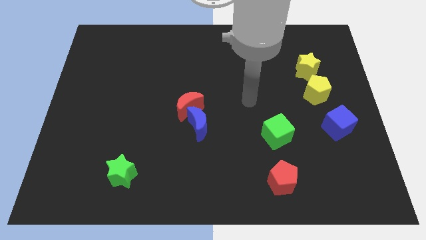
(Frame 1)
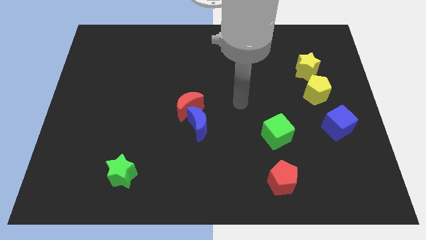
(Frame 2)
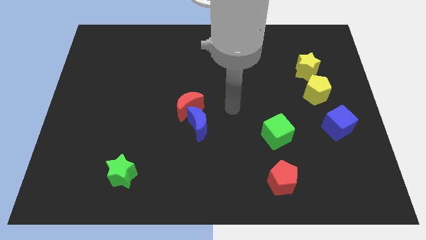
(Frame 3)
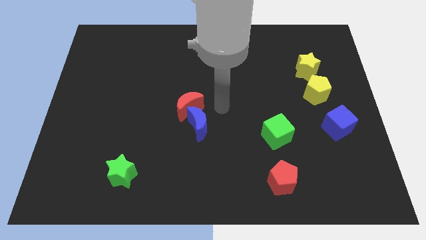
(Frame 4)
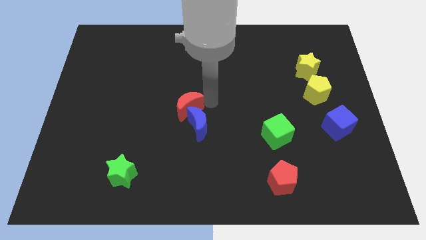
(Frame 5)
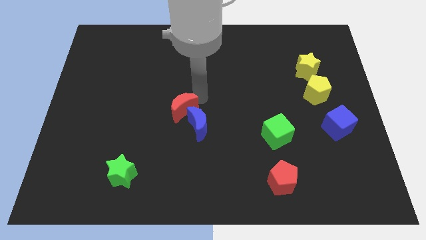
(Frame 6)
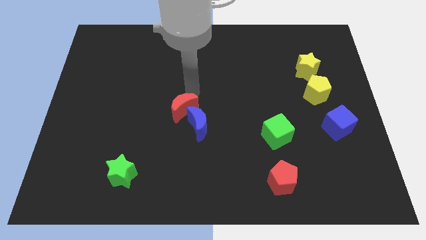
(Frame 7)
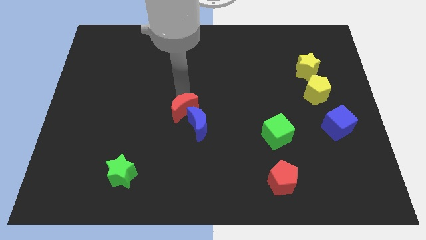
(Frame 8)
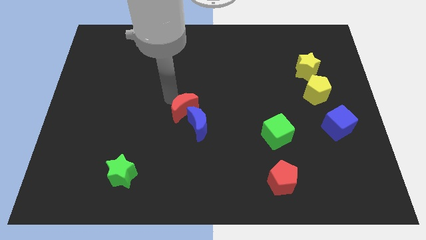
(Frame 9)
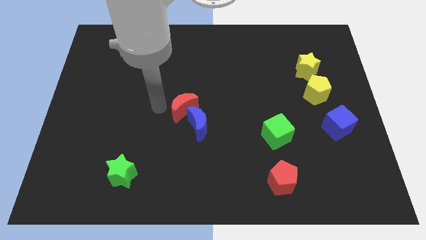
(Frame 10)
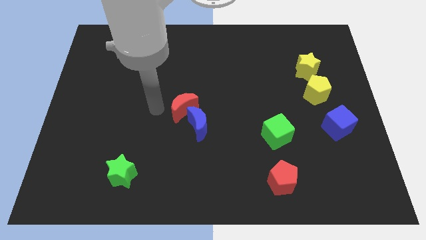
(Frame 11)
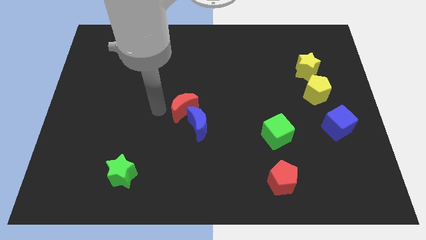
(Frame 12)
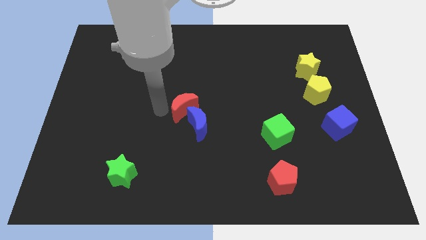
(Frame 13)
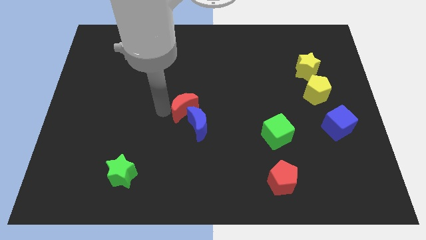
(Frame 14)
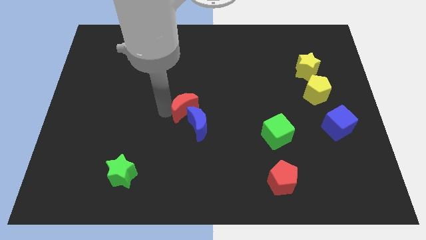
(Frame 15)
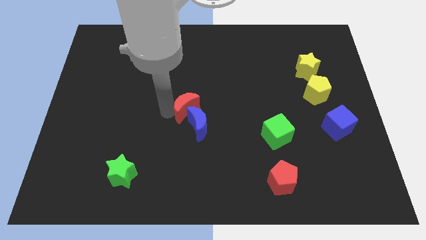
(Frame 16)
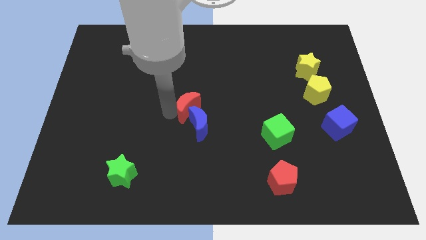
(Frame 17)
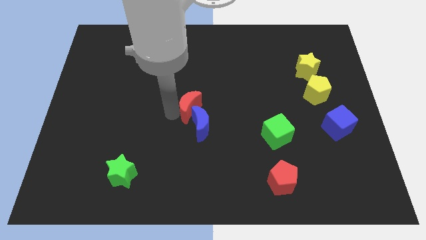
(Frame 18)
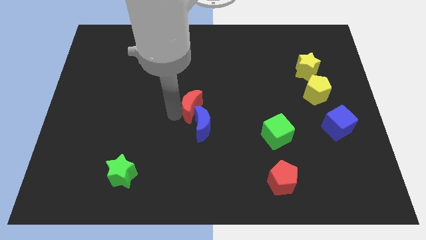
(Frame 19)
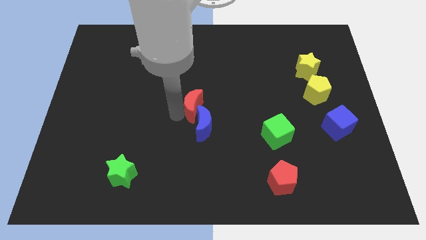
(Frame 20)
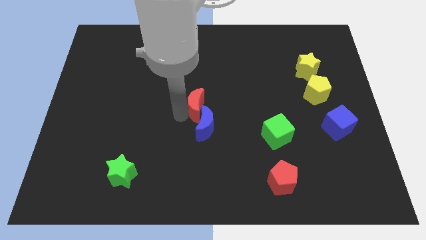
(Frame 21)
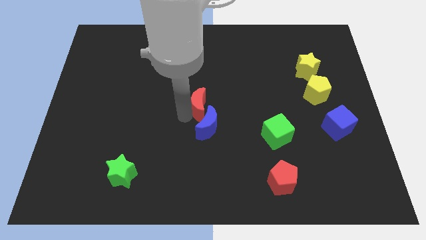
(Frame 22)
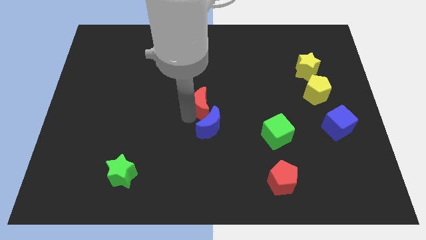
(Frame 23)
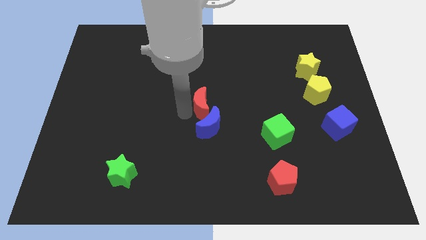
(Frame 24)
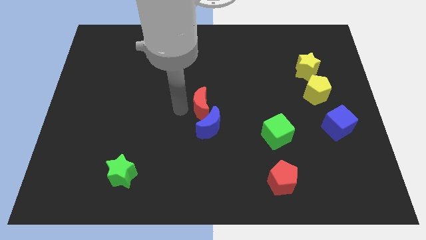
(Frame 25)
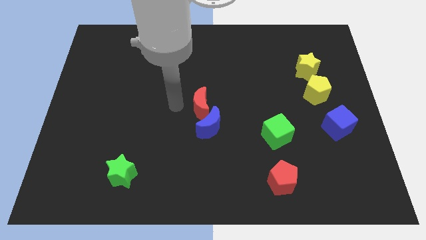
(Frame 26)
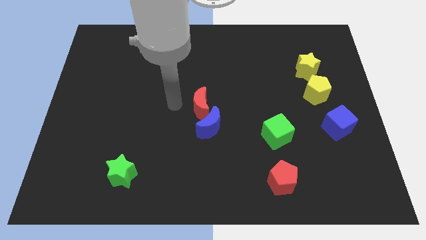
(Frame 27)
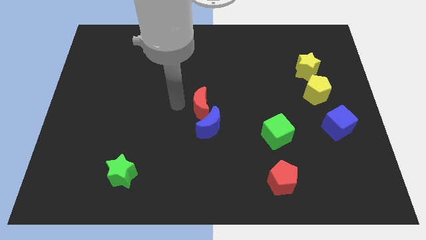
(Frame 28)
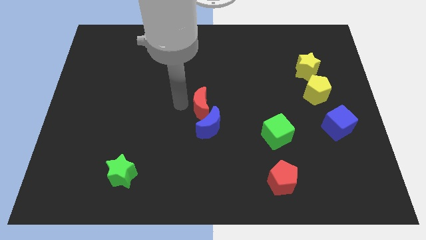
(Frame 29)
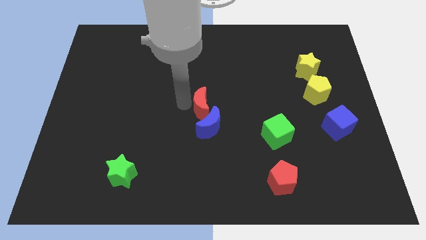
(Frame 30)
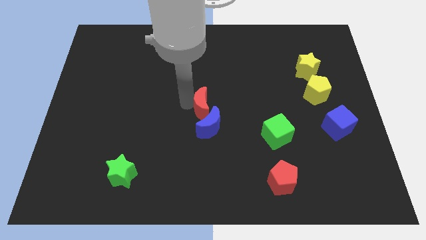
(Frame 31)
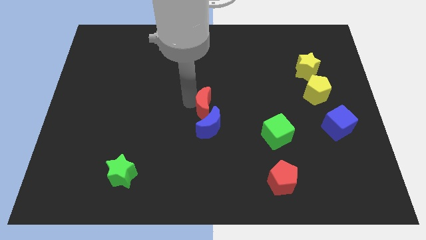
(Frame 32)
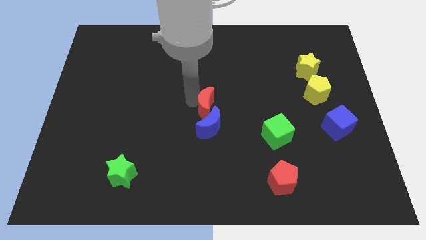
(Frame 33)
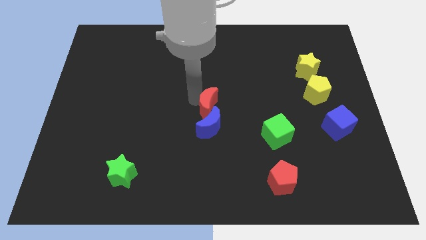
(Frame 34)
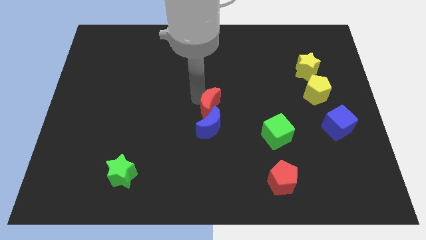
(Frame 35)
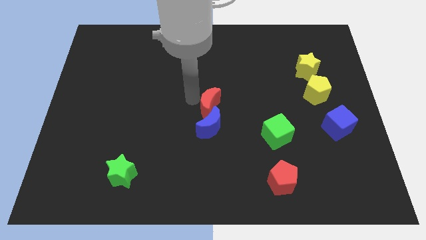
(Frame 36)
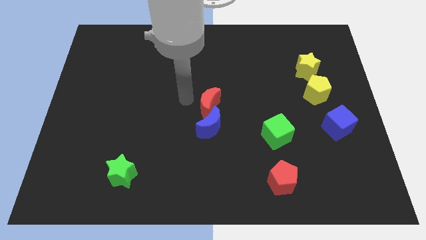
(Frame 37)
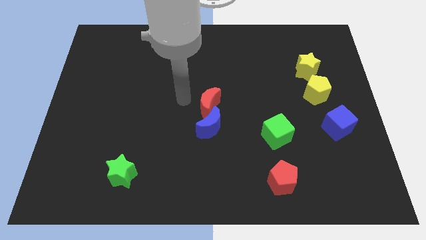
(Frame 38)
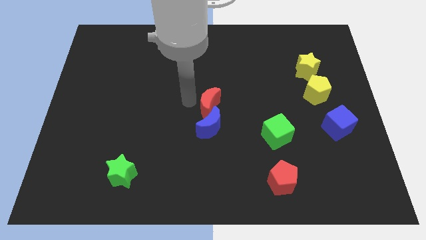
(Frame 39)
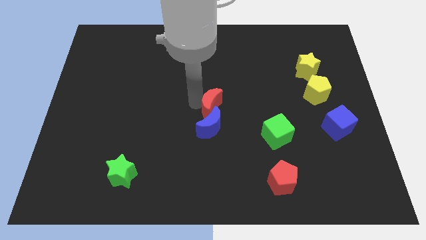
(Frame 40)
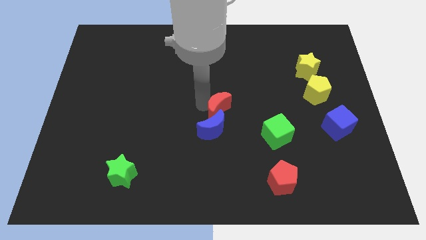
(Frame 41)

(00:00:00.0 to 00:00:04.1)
move the red moon to the right slightly

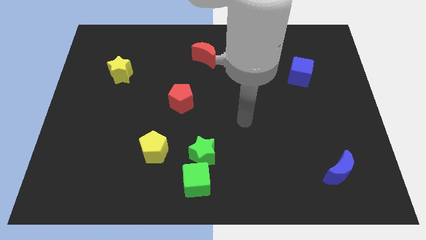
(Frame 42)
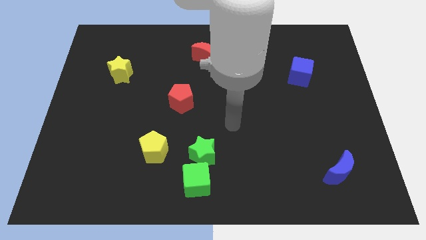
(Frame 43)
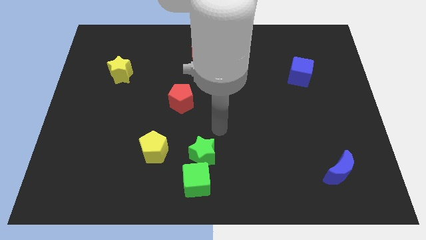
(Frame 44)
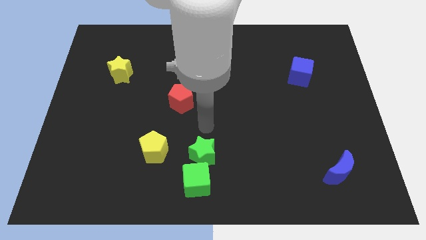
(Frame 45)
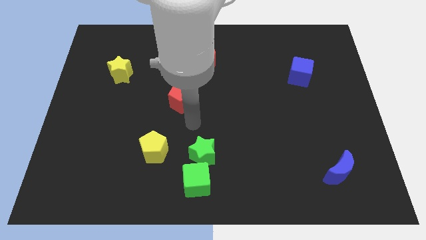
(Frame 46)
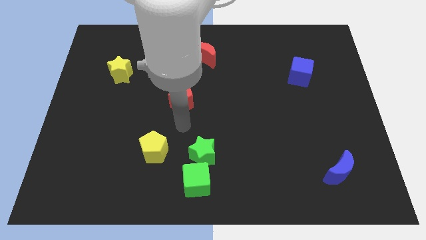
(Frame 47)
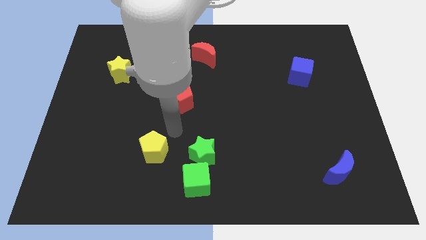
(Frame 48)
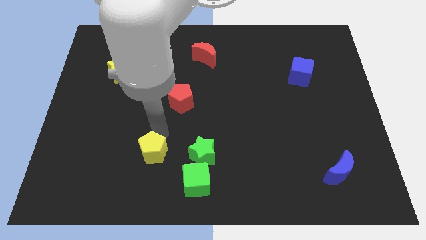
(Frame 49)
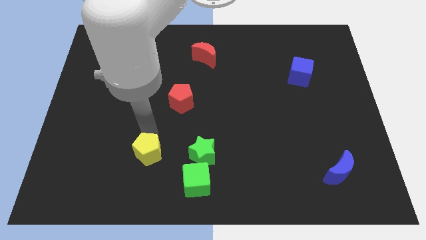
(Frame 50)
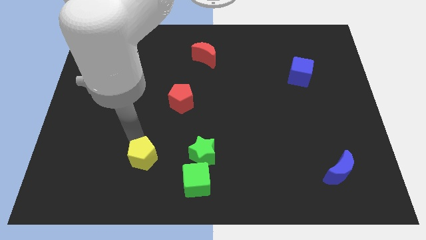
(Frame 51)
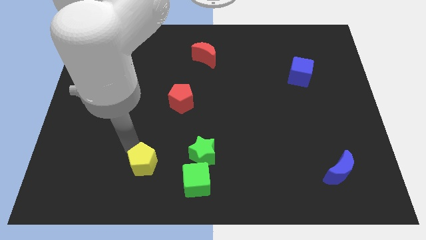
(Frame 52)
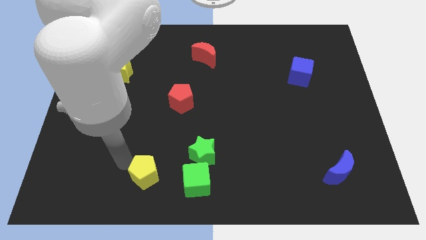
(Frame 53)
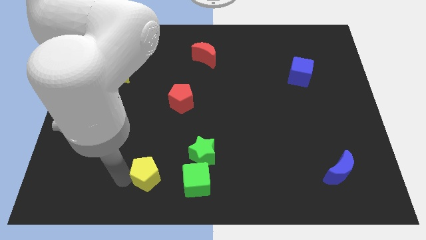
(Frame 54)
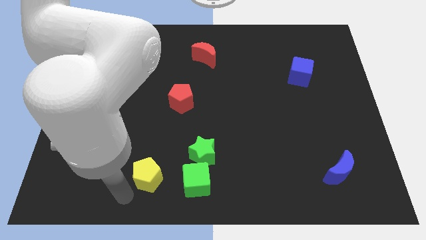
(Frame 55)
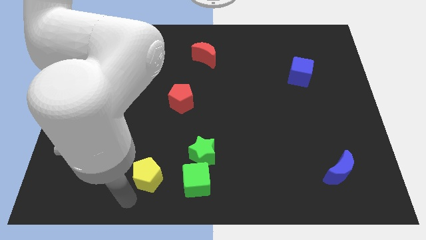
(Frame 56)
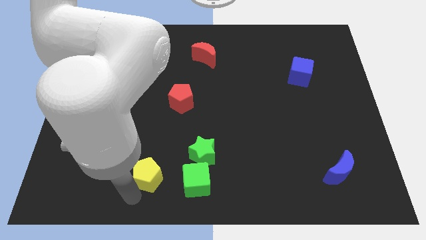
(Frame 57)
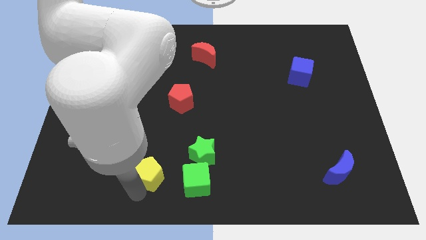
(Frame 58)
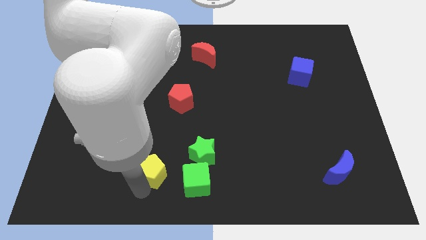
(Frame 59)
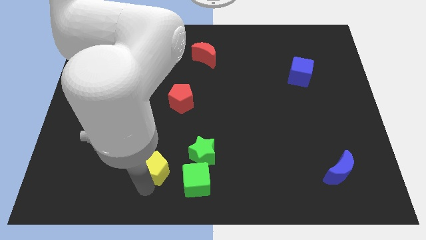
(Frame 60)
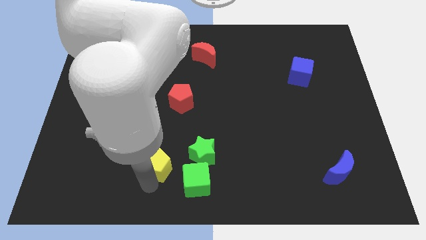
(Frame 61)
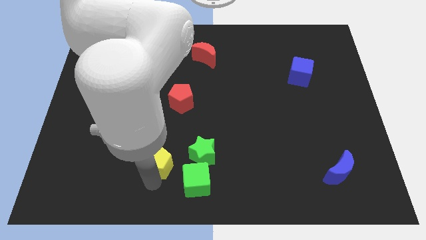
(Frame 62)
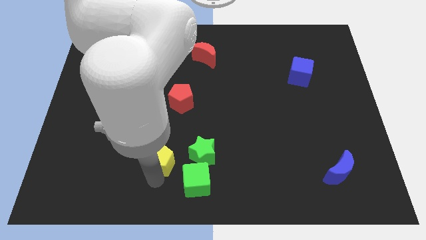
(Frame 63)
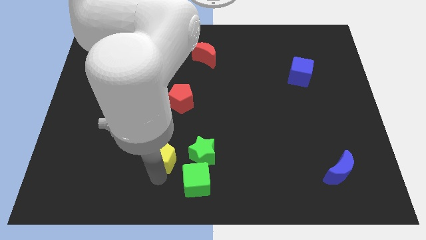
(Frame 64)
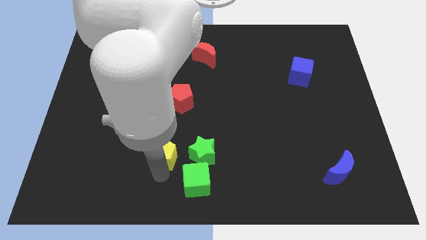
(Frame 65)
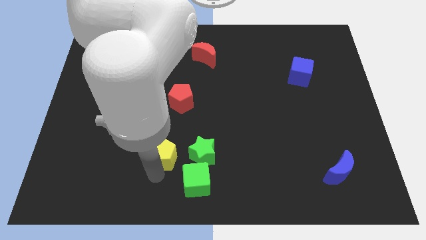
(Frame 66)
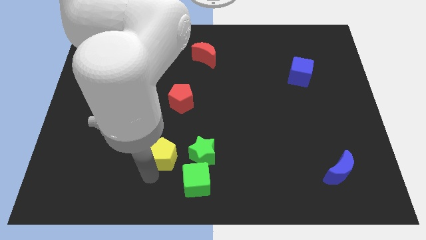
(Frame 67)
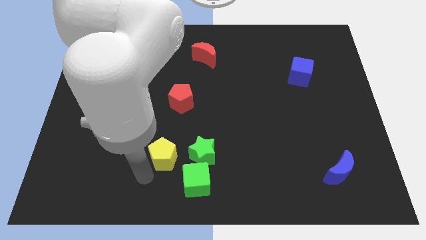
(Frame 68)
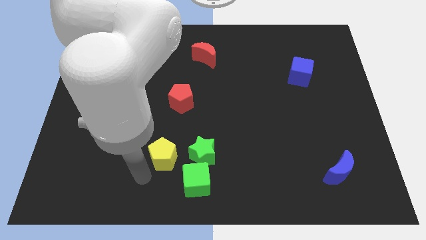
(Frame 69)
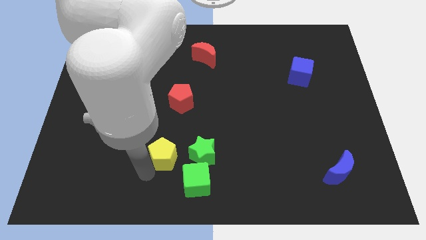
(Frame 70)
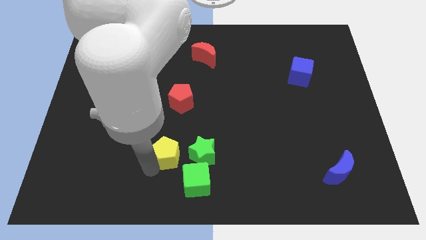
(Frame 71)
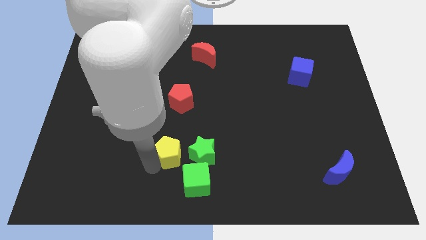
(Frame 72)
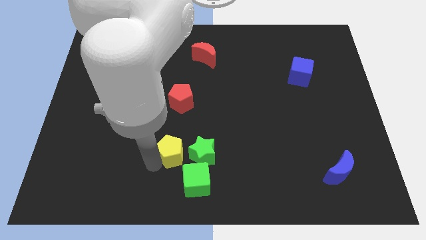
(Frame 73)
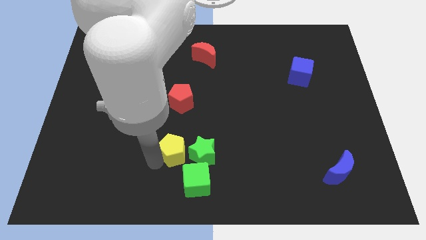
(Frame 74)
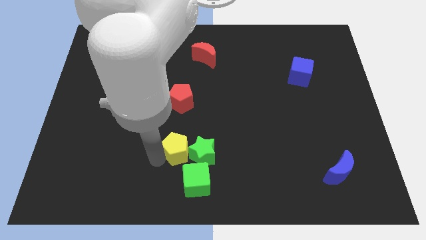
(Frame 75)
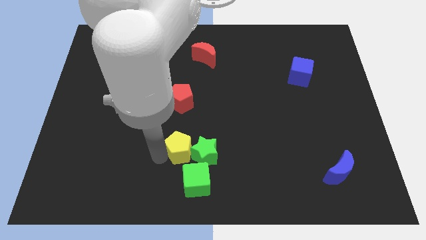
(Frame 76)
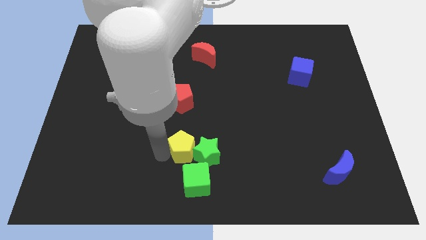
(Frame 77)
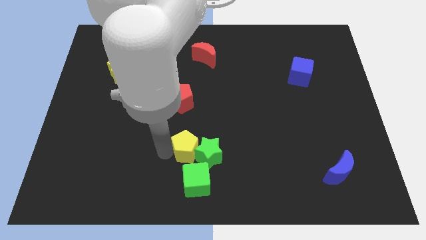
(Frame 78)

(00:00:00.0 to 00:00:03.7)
move the yellow pentagon to the right a bit

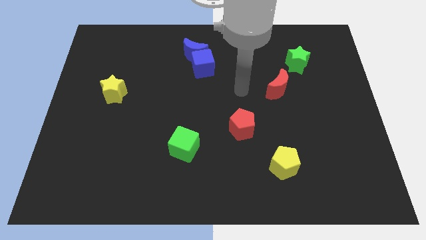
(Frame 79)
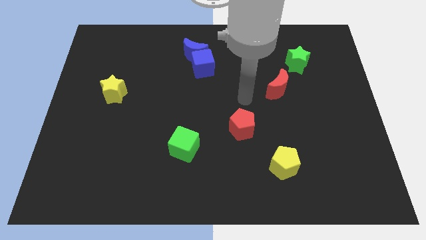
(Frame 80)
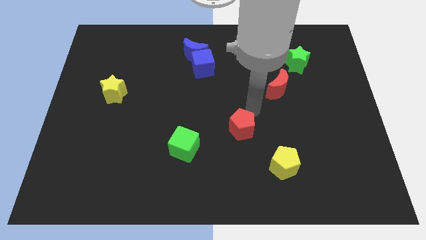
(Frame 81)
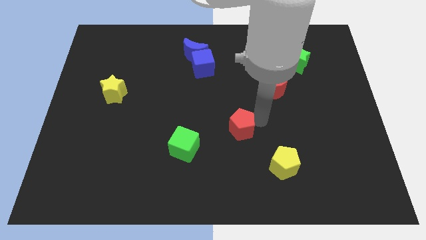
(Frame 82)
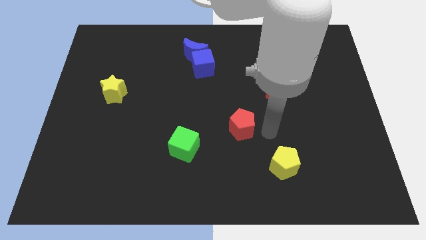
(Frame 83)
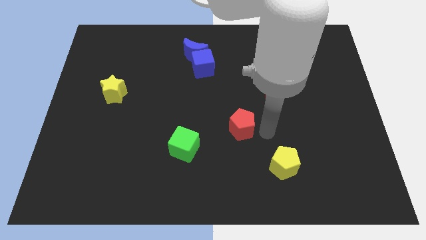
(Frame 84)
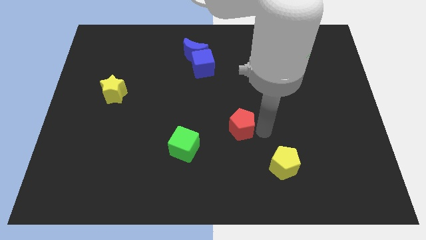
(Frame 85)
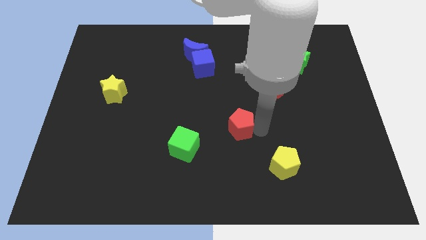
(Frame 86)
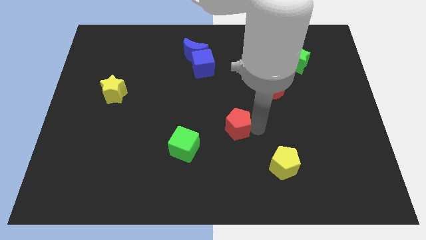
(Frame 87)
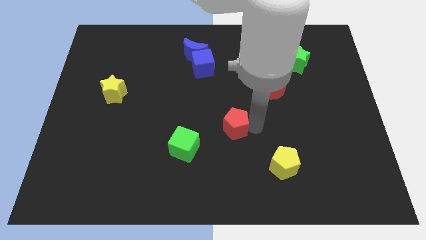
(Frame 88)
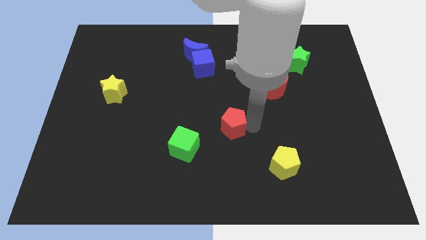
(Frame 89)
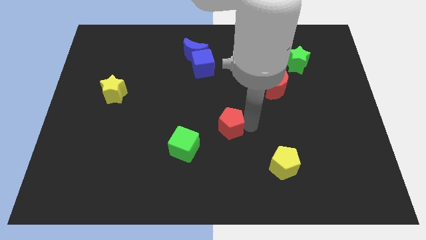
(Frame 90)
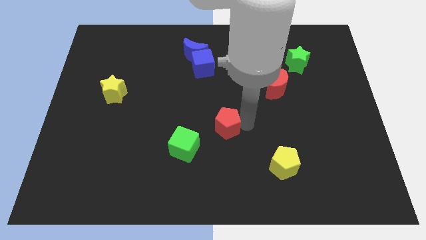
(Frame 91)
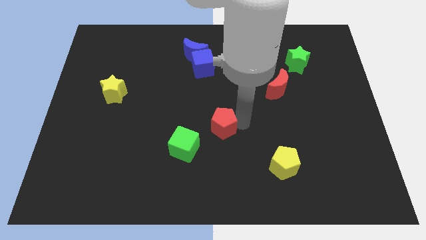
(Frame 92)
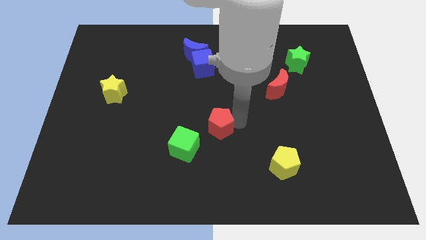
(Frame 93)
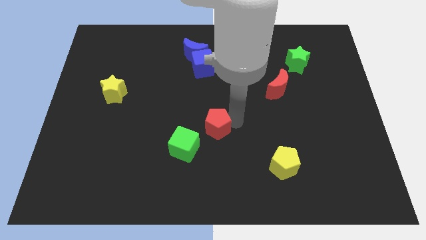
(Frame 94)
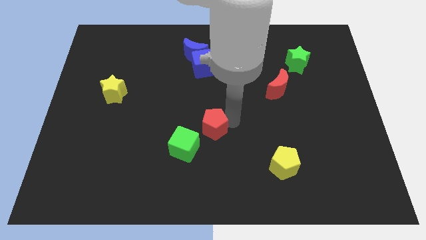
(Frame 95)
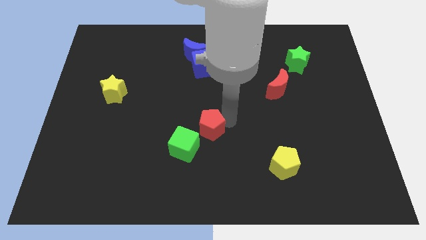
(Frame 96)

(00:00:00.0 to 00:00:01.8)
move the red pentagon somewhat to the left
